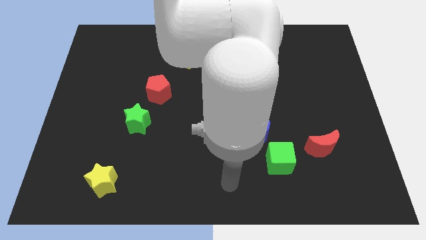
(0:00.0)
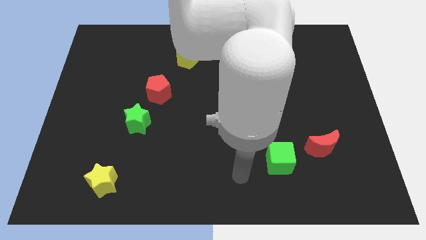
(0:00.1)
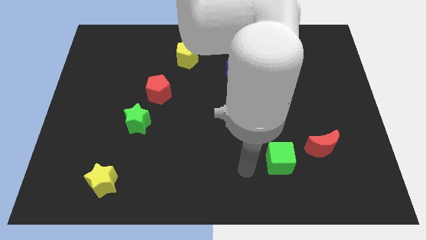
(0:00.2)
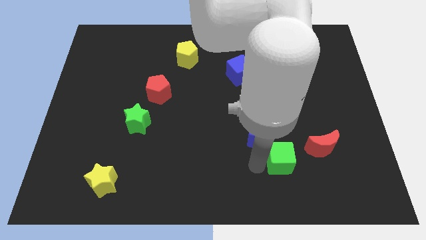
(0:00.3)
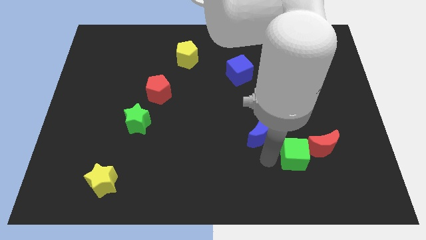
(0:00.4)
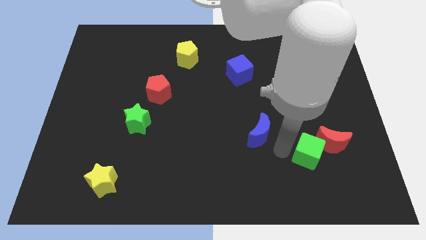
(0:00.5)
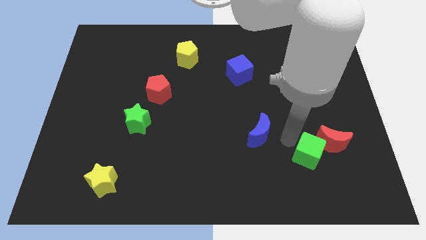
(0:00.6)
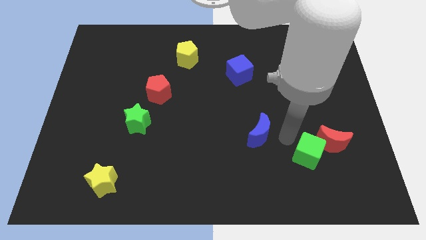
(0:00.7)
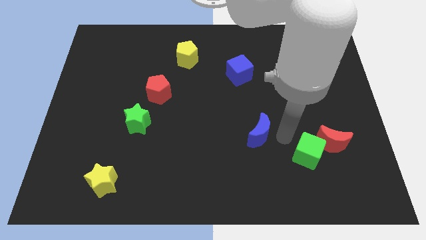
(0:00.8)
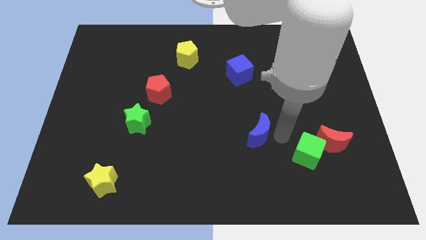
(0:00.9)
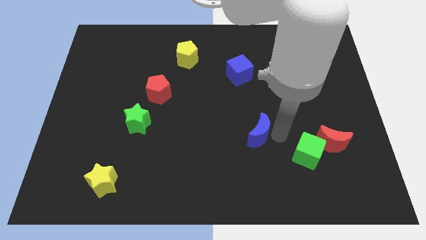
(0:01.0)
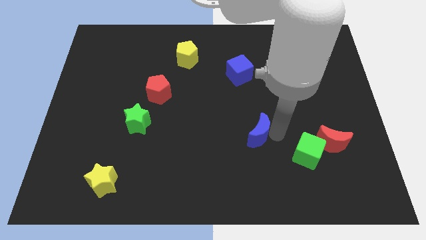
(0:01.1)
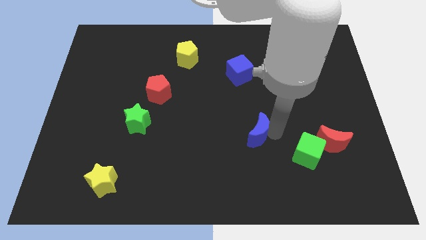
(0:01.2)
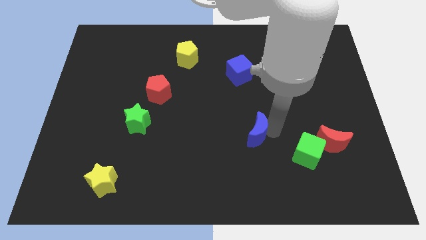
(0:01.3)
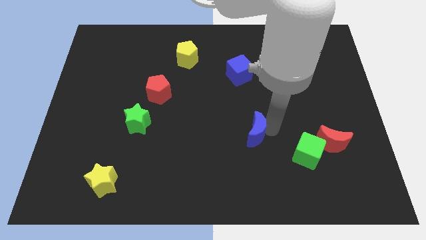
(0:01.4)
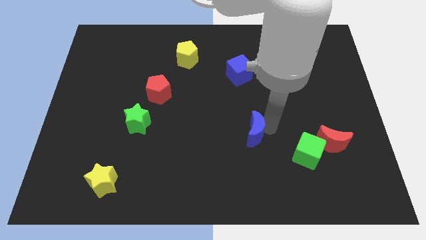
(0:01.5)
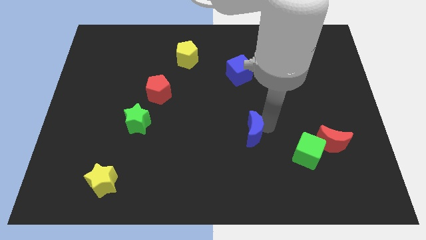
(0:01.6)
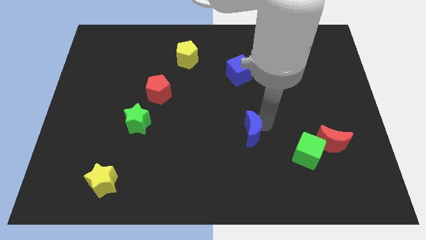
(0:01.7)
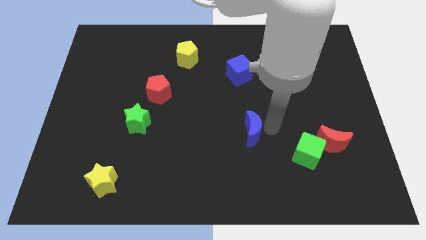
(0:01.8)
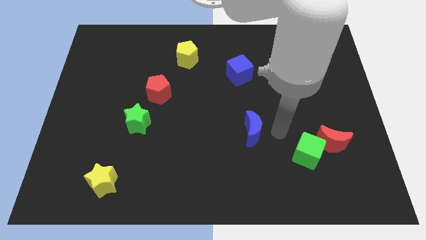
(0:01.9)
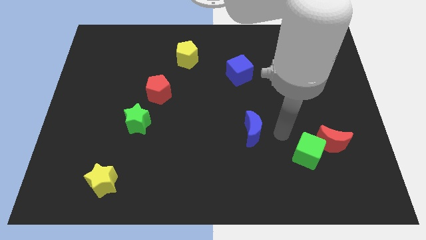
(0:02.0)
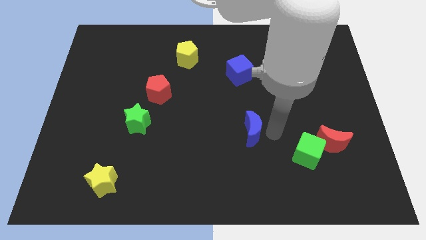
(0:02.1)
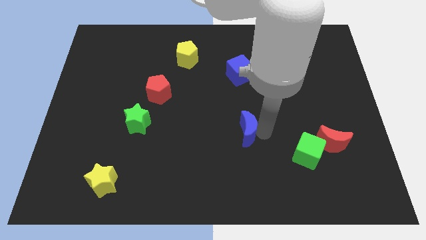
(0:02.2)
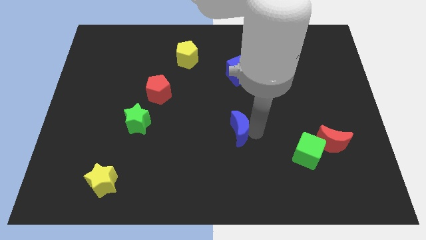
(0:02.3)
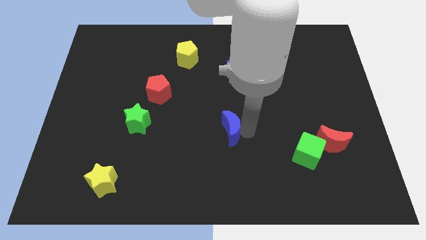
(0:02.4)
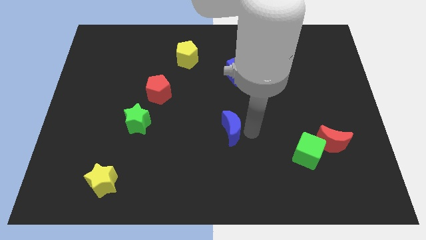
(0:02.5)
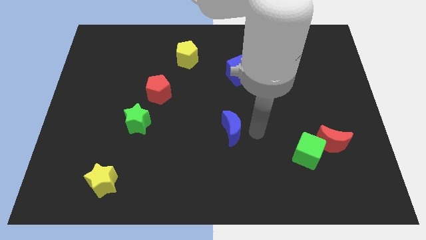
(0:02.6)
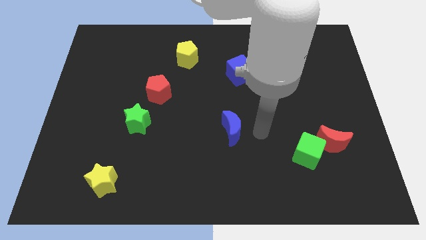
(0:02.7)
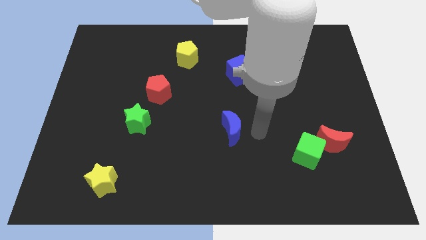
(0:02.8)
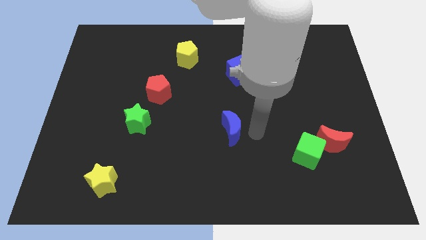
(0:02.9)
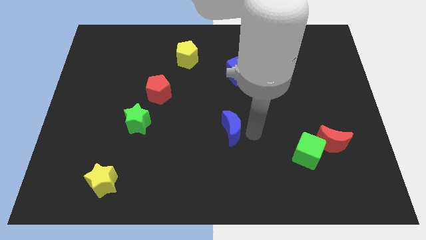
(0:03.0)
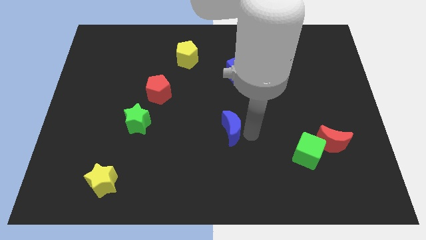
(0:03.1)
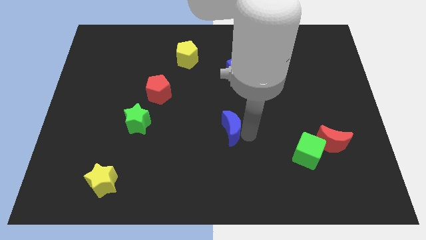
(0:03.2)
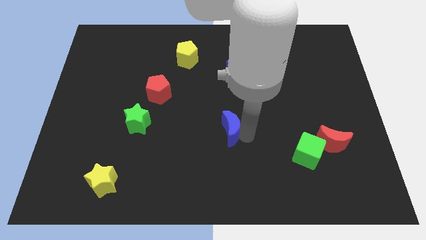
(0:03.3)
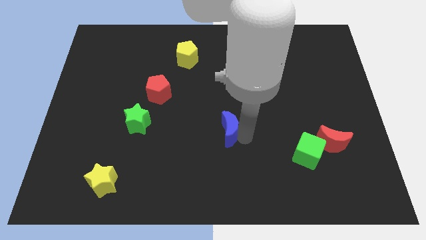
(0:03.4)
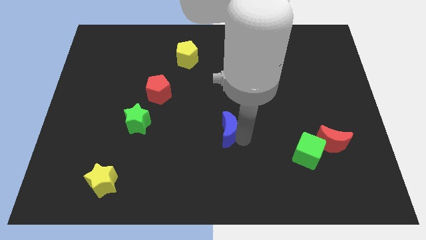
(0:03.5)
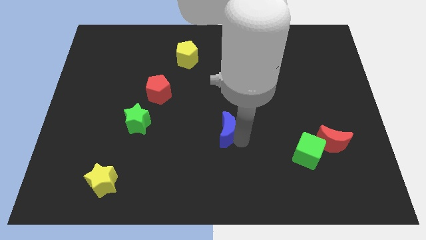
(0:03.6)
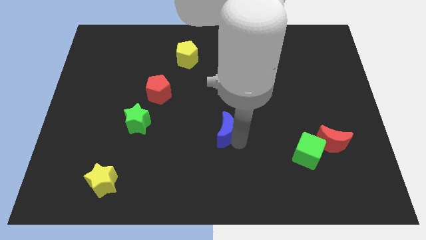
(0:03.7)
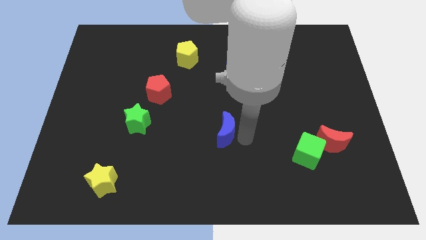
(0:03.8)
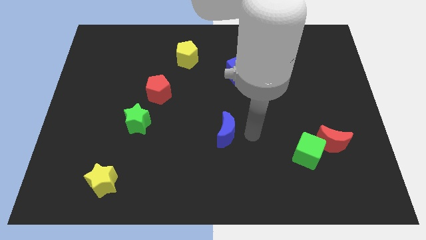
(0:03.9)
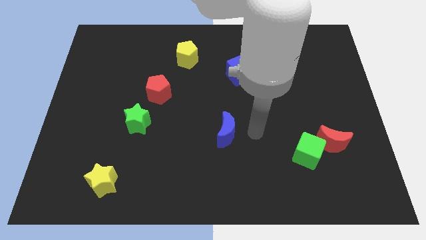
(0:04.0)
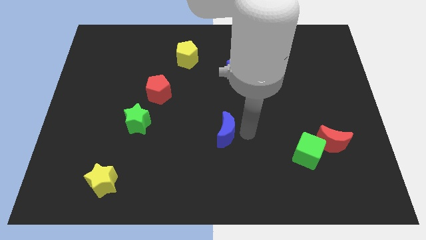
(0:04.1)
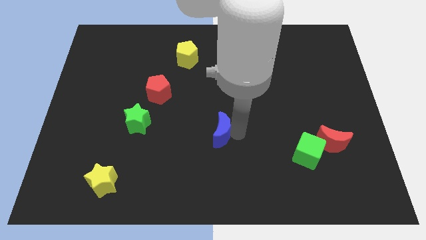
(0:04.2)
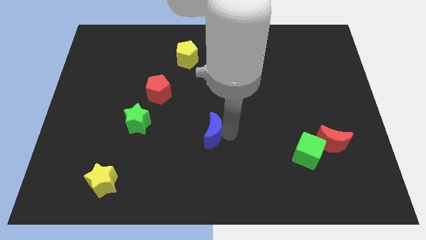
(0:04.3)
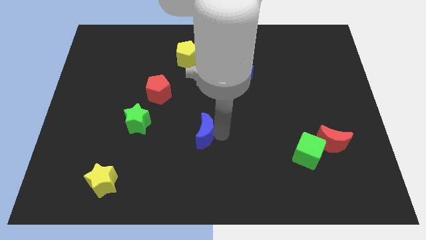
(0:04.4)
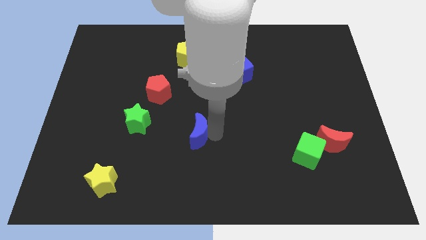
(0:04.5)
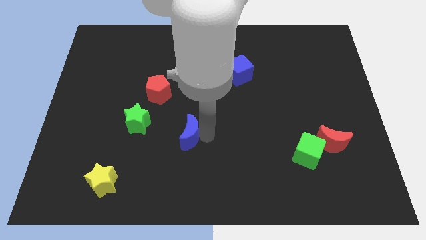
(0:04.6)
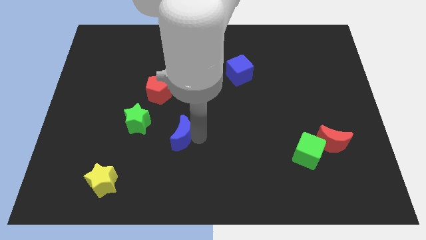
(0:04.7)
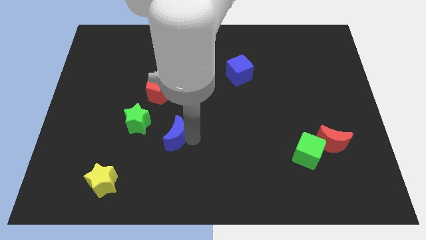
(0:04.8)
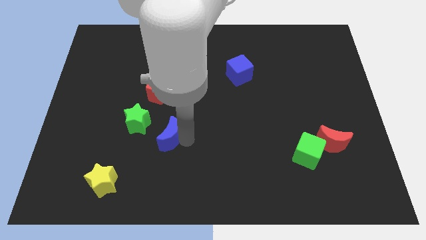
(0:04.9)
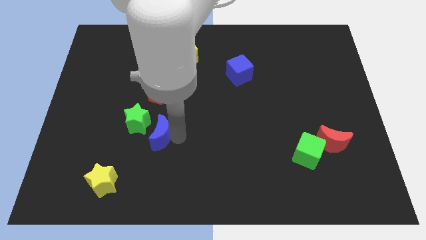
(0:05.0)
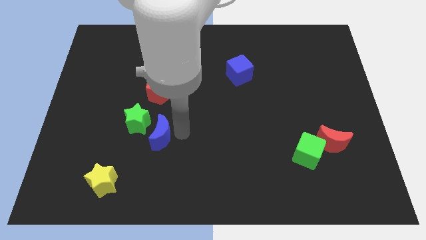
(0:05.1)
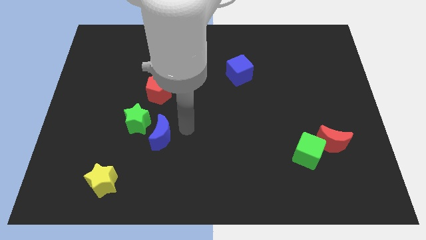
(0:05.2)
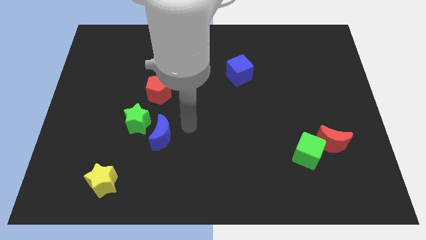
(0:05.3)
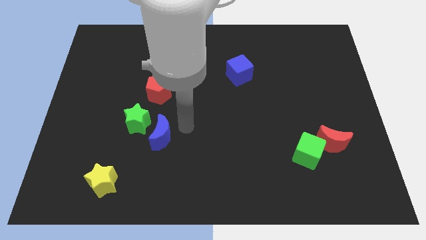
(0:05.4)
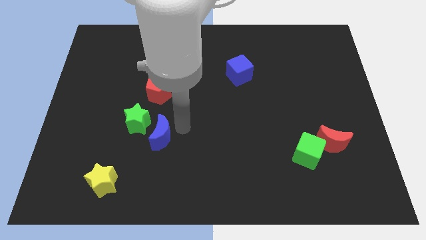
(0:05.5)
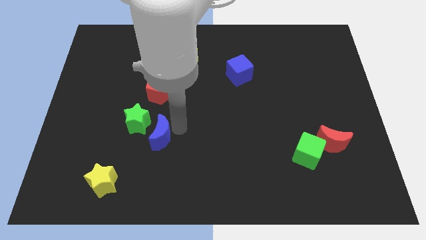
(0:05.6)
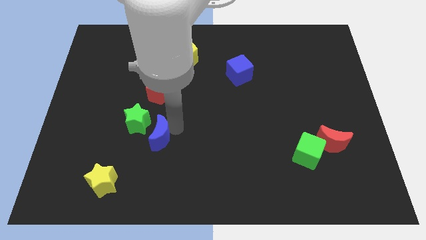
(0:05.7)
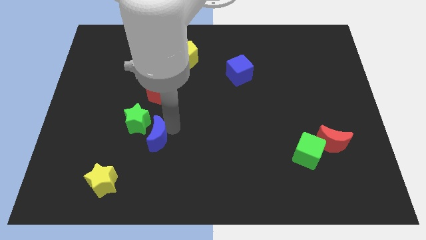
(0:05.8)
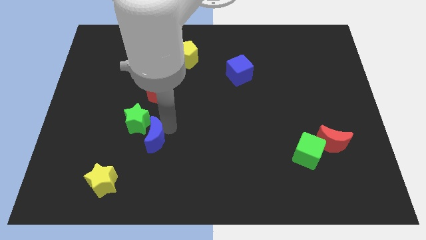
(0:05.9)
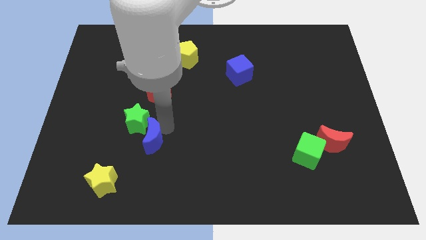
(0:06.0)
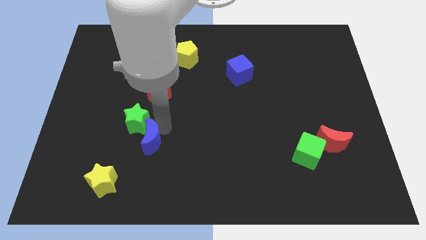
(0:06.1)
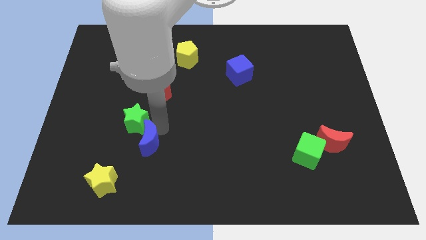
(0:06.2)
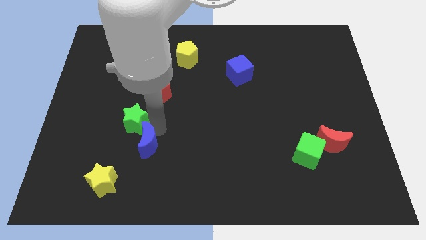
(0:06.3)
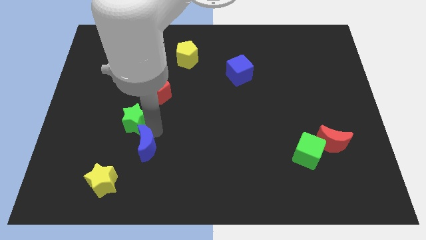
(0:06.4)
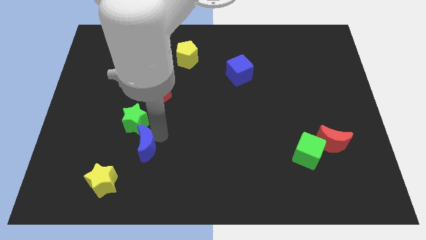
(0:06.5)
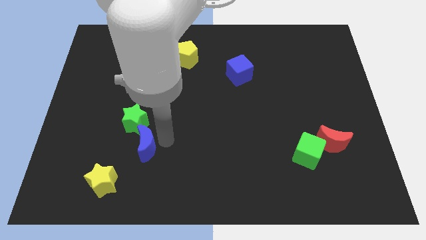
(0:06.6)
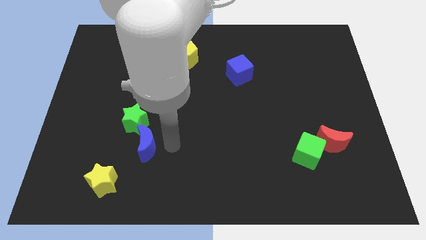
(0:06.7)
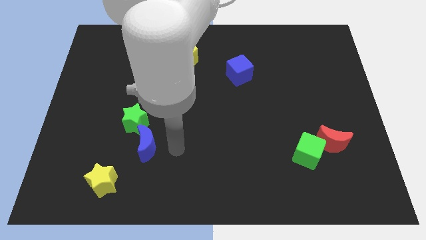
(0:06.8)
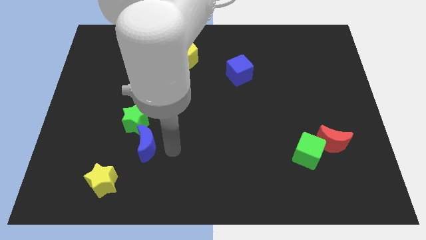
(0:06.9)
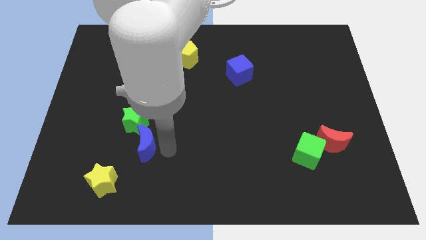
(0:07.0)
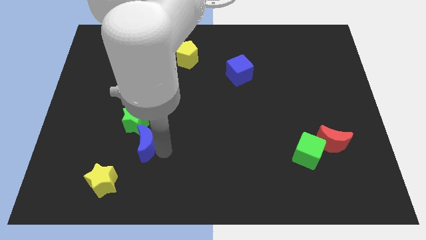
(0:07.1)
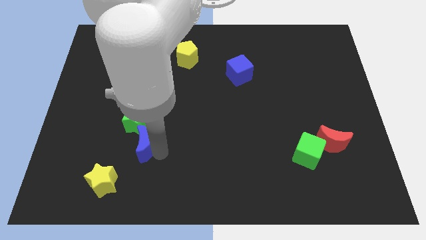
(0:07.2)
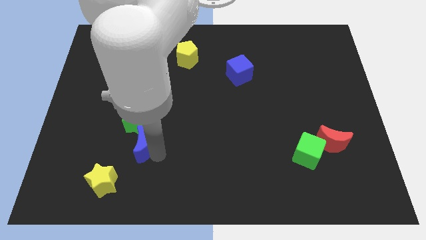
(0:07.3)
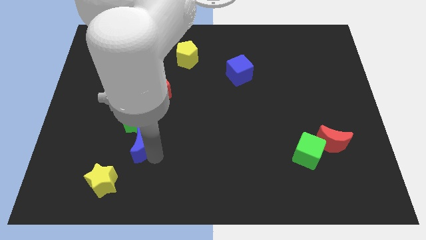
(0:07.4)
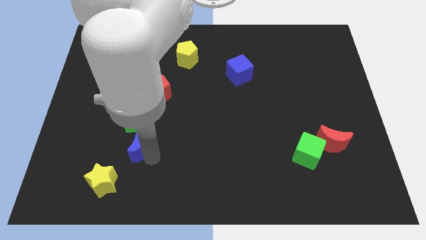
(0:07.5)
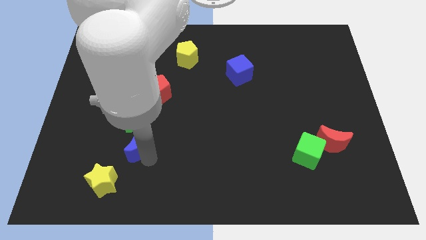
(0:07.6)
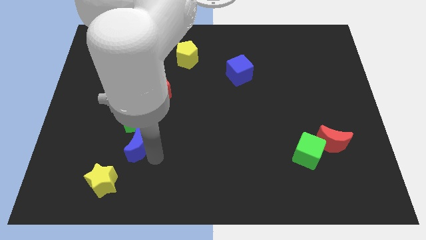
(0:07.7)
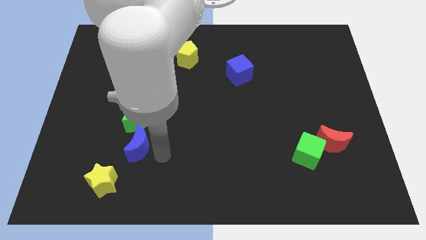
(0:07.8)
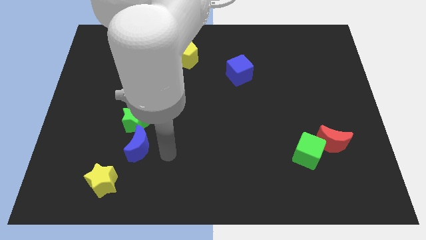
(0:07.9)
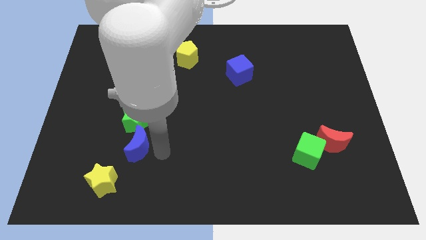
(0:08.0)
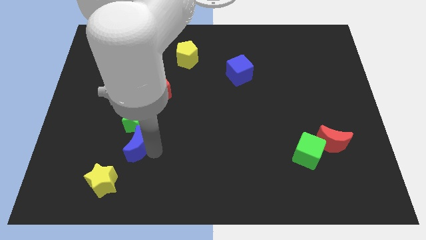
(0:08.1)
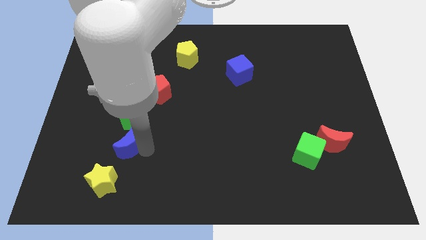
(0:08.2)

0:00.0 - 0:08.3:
put the blue moon to the bottom left of the green star

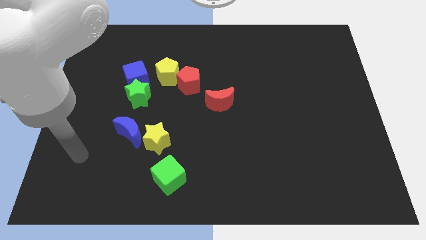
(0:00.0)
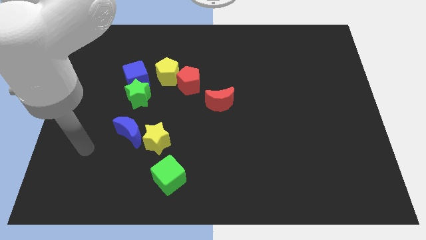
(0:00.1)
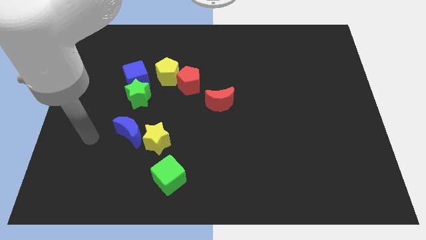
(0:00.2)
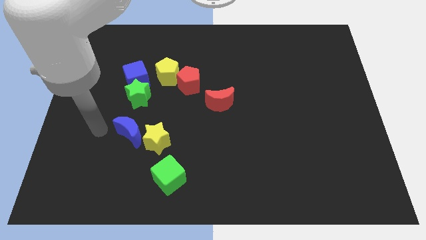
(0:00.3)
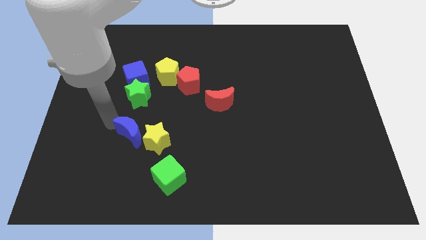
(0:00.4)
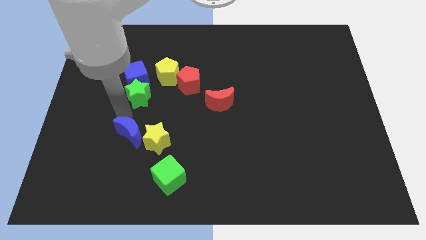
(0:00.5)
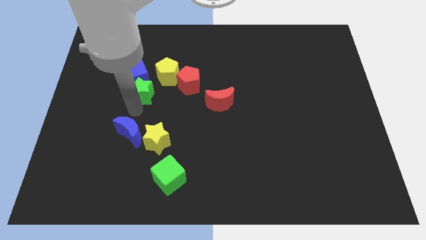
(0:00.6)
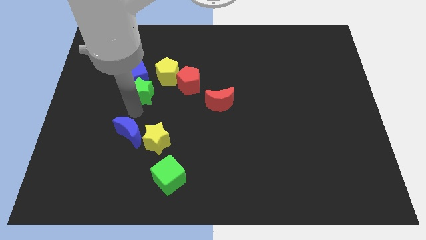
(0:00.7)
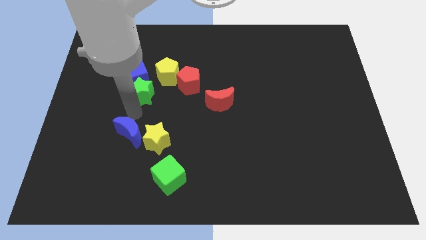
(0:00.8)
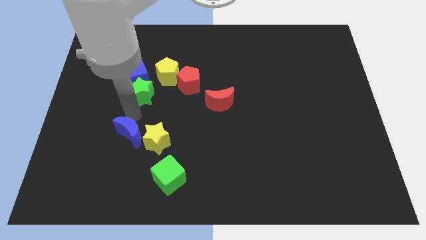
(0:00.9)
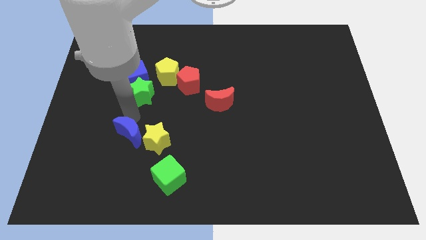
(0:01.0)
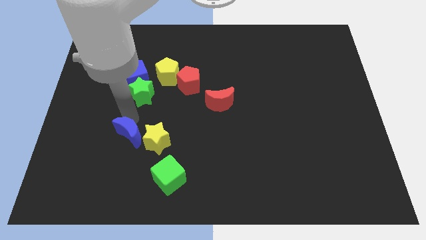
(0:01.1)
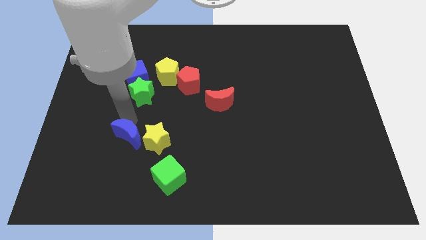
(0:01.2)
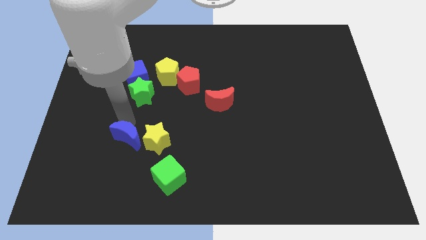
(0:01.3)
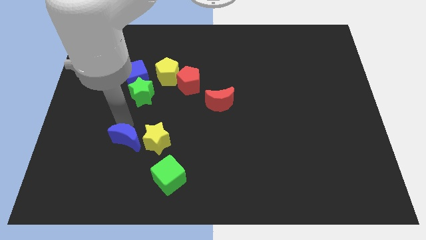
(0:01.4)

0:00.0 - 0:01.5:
push the blue moon to the bottom left of the yellow star
